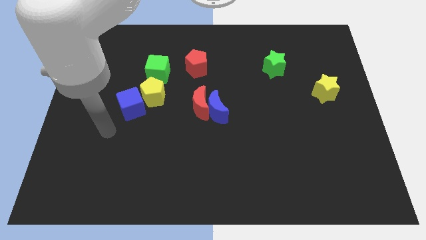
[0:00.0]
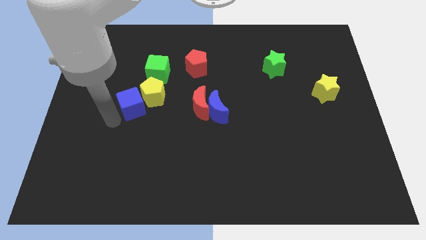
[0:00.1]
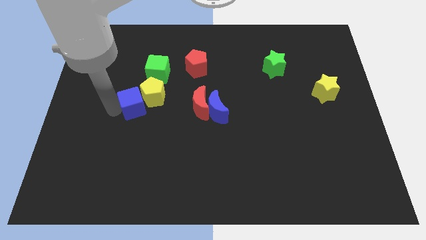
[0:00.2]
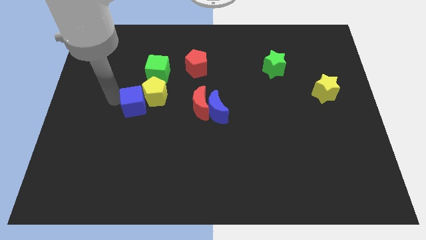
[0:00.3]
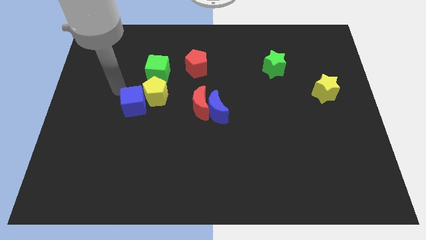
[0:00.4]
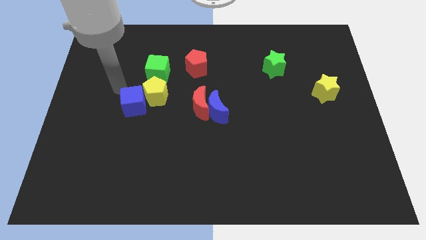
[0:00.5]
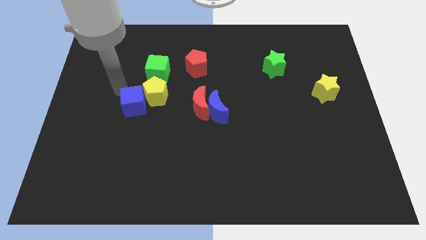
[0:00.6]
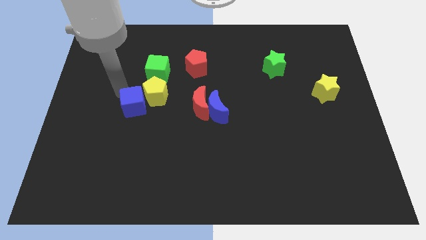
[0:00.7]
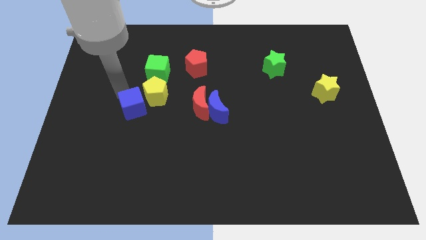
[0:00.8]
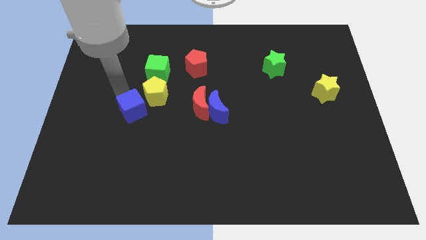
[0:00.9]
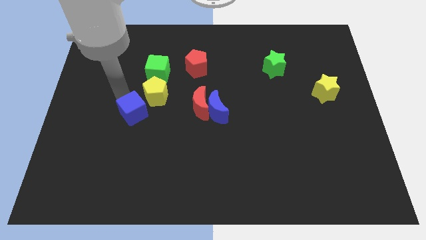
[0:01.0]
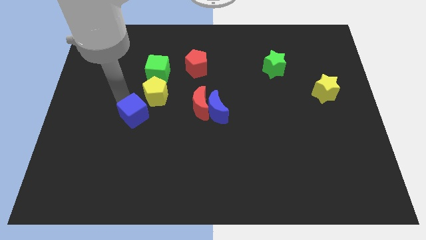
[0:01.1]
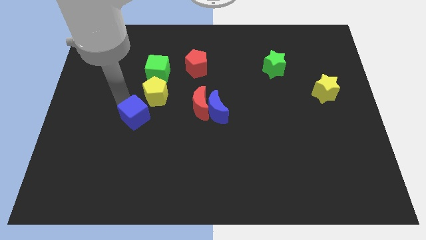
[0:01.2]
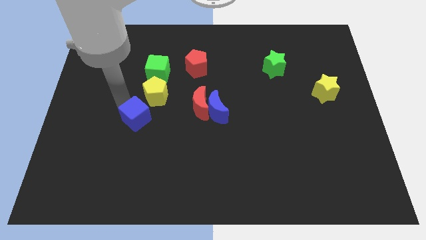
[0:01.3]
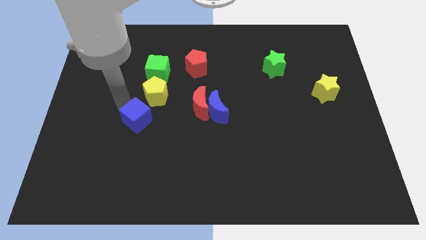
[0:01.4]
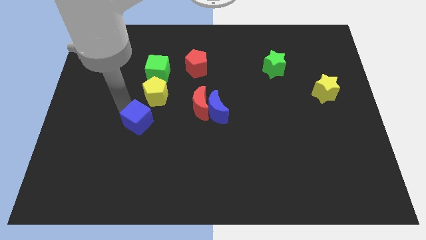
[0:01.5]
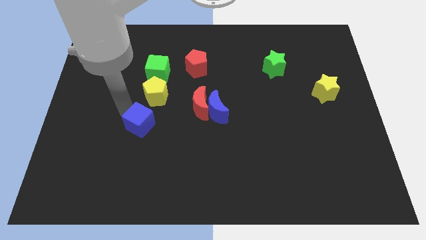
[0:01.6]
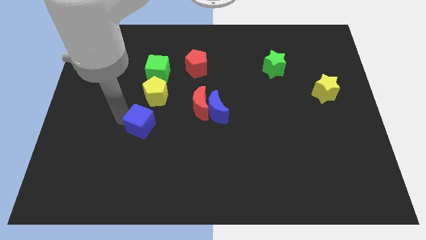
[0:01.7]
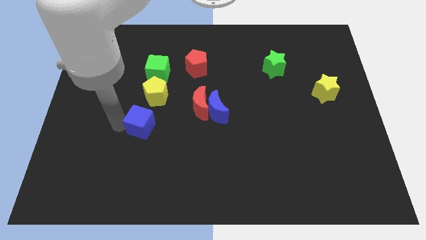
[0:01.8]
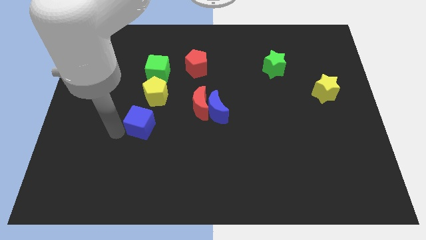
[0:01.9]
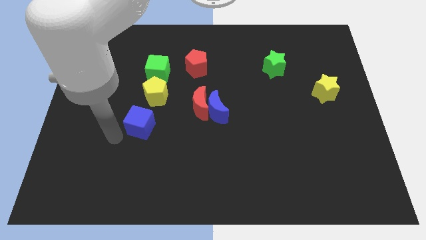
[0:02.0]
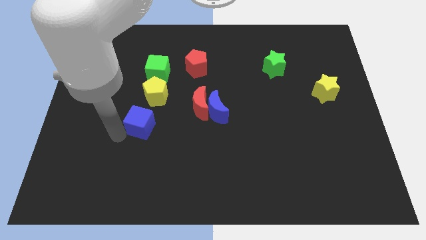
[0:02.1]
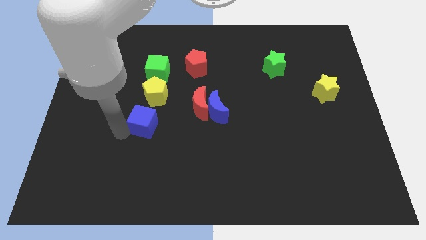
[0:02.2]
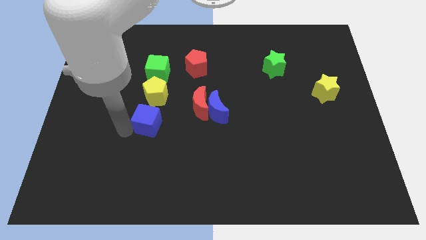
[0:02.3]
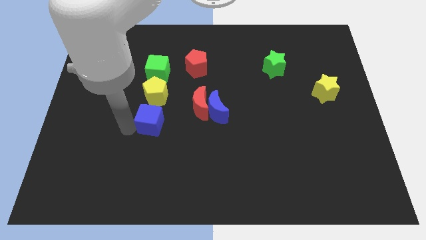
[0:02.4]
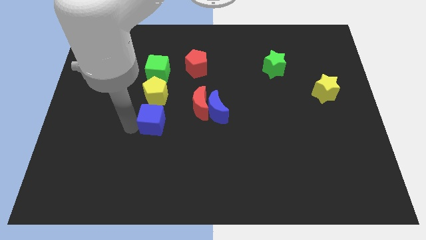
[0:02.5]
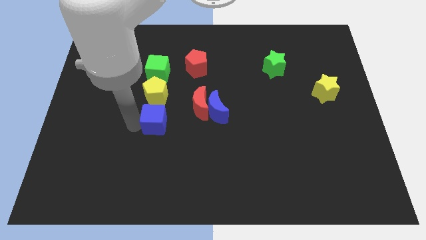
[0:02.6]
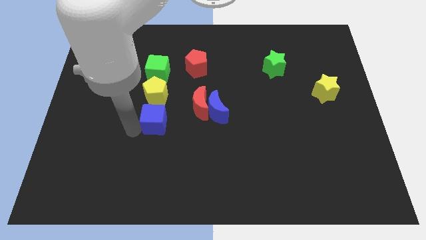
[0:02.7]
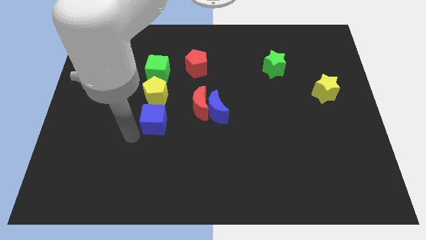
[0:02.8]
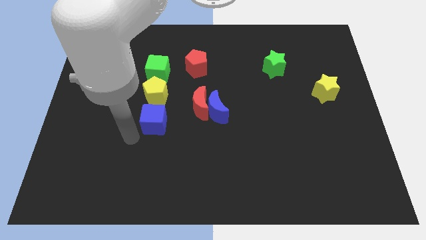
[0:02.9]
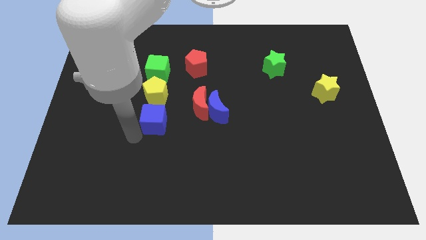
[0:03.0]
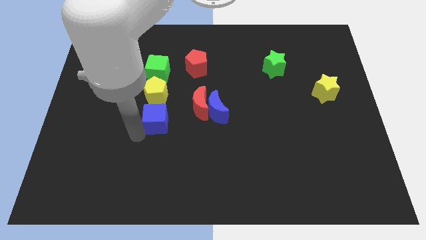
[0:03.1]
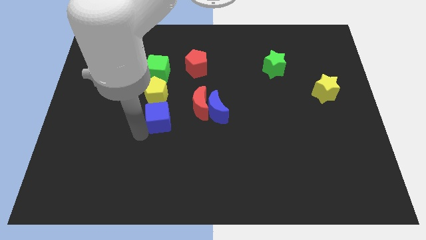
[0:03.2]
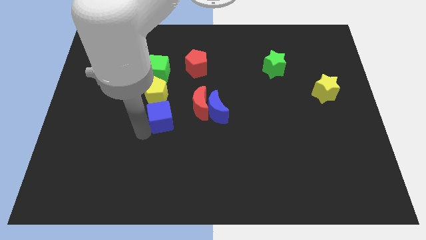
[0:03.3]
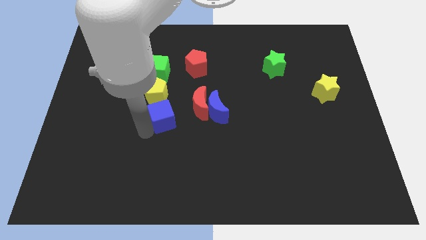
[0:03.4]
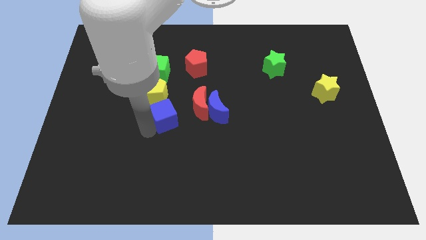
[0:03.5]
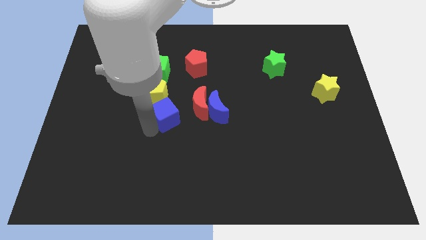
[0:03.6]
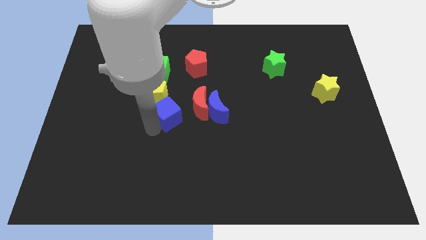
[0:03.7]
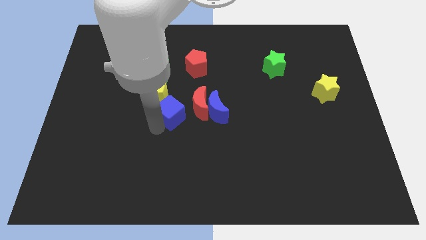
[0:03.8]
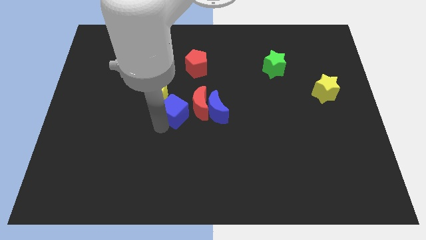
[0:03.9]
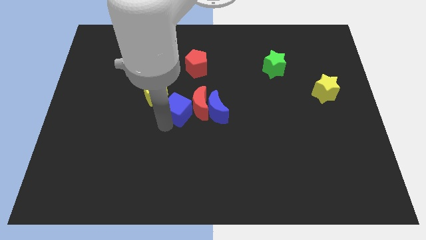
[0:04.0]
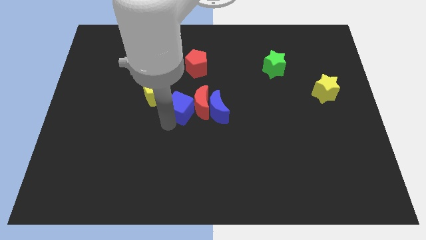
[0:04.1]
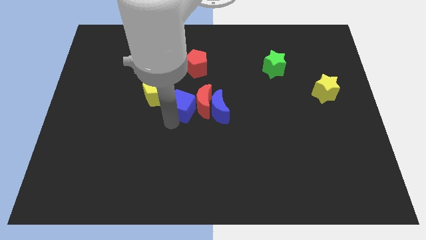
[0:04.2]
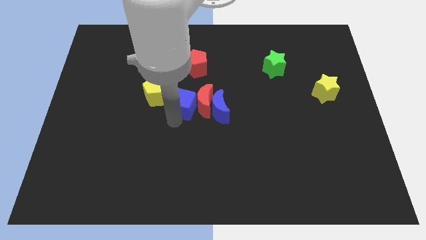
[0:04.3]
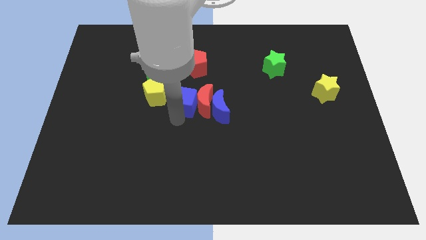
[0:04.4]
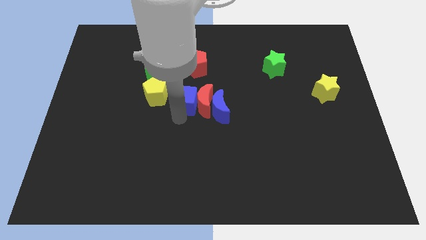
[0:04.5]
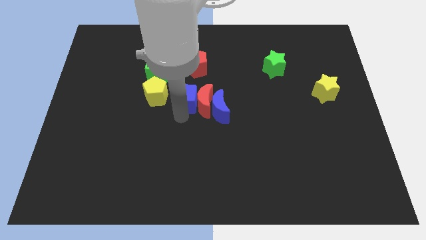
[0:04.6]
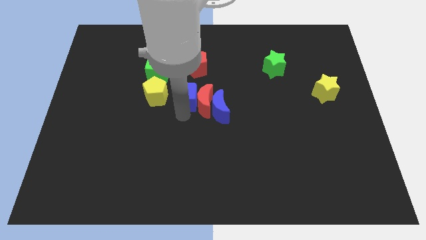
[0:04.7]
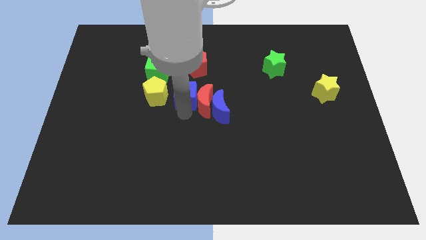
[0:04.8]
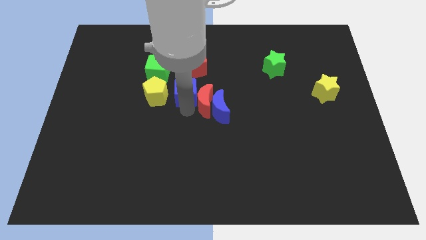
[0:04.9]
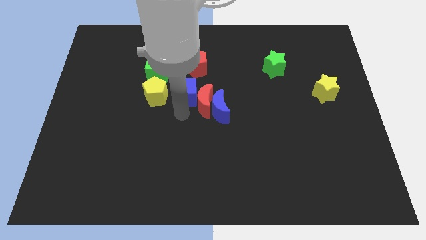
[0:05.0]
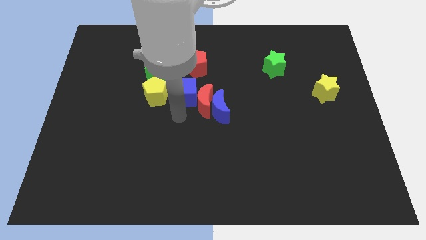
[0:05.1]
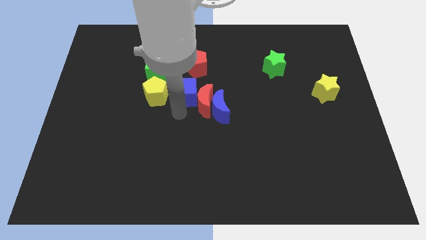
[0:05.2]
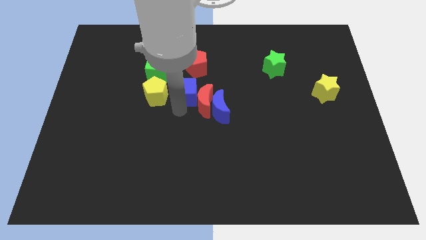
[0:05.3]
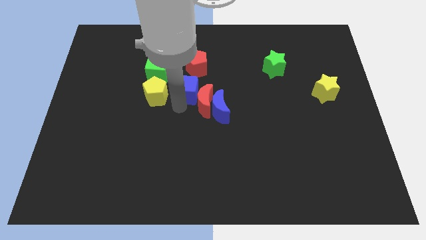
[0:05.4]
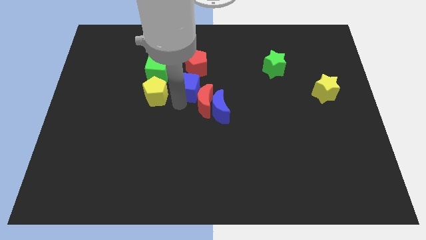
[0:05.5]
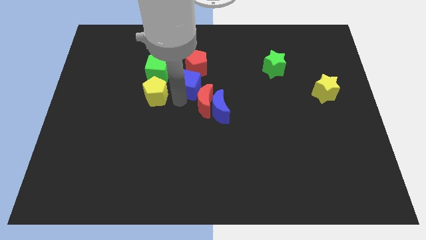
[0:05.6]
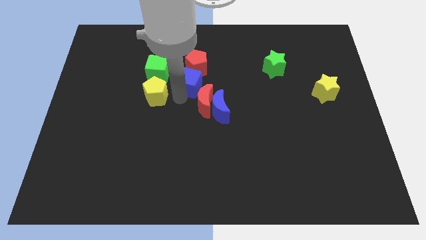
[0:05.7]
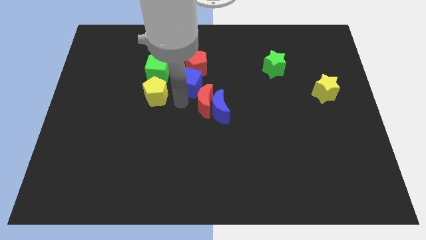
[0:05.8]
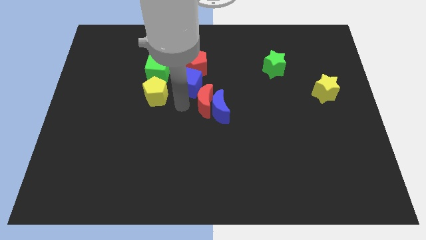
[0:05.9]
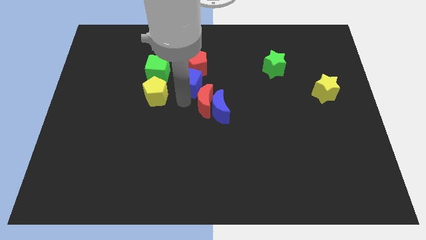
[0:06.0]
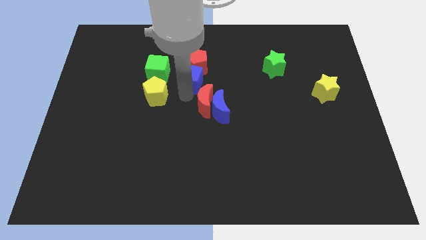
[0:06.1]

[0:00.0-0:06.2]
slide the blue cube to the red pentagon

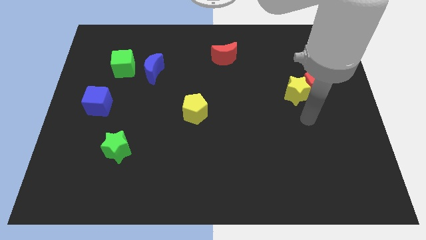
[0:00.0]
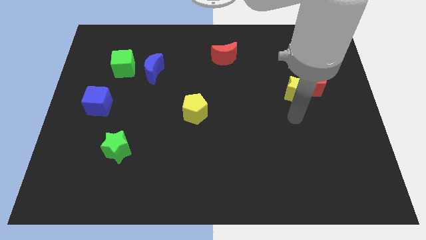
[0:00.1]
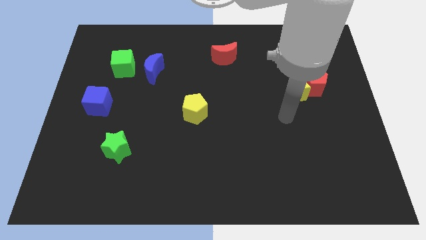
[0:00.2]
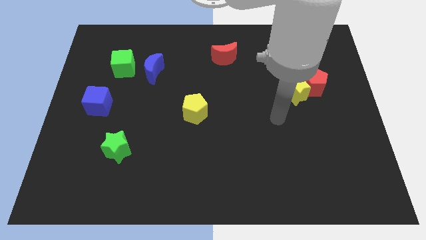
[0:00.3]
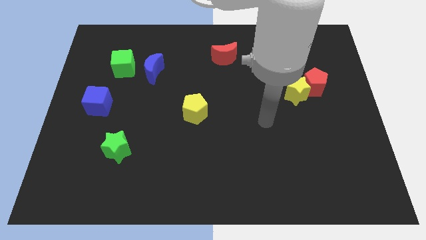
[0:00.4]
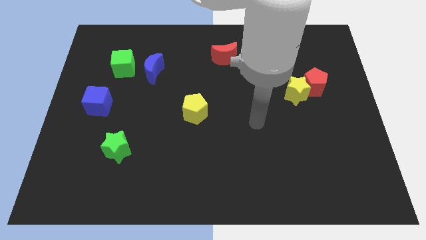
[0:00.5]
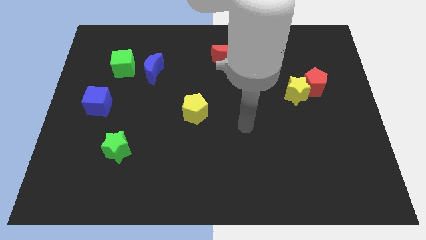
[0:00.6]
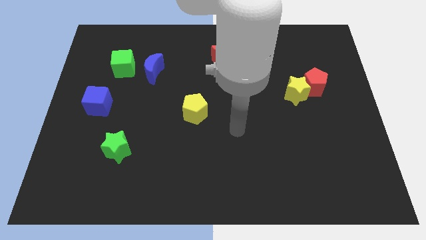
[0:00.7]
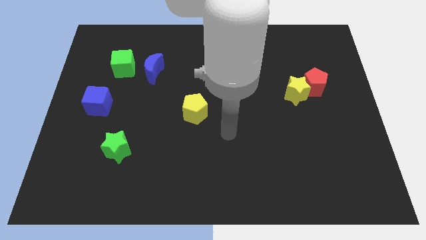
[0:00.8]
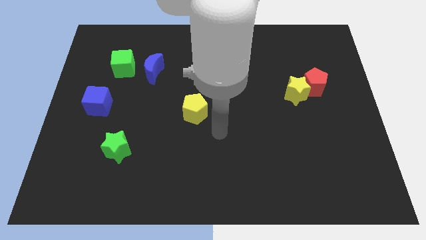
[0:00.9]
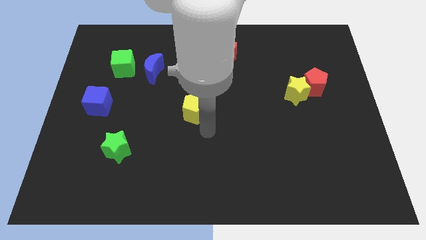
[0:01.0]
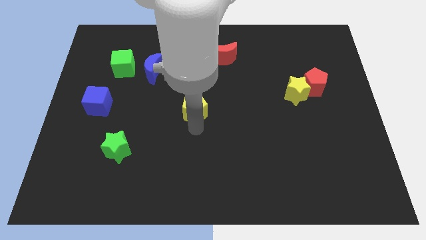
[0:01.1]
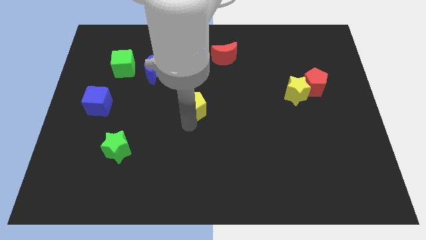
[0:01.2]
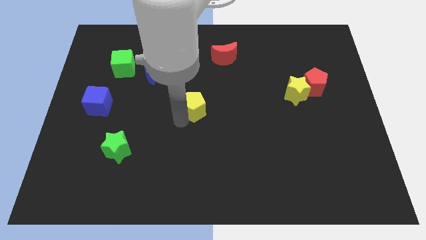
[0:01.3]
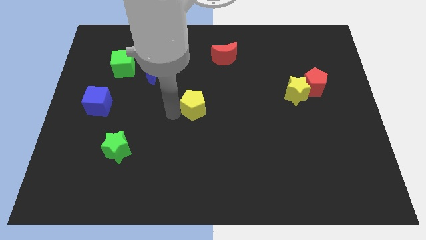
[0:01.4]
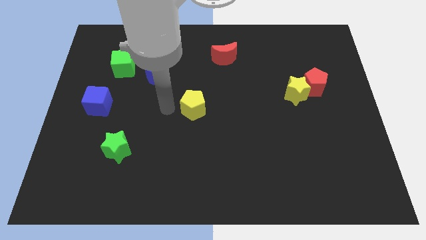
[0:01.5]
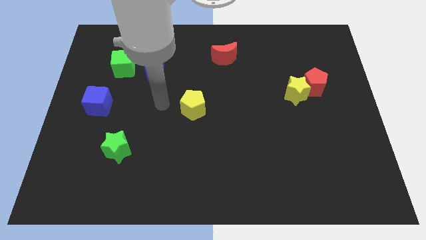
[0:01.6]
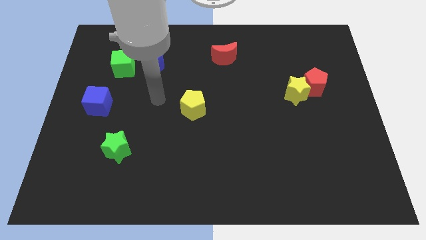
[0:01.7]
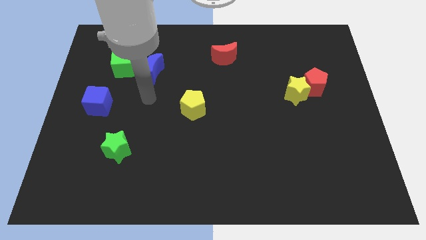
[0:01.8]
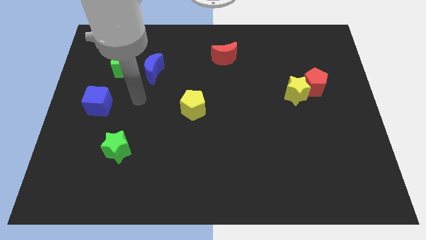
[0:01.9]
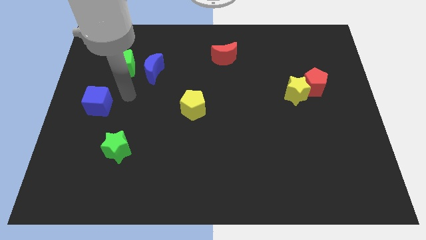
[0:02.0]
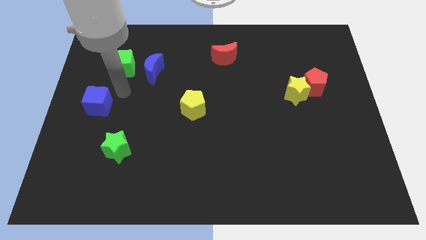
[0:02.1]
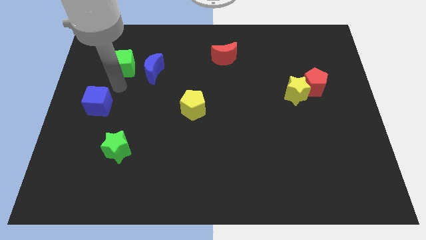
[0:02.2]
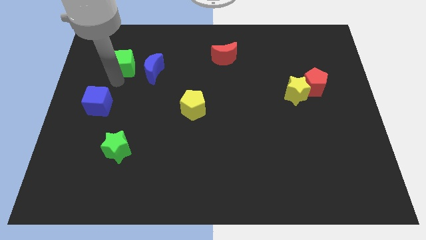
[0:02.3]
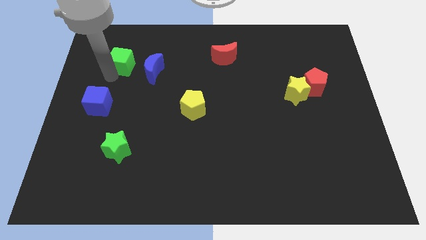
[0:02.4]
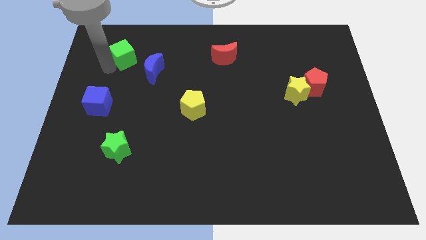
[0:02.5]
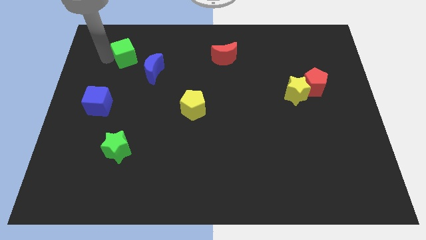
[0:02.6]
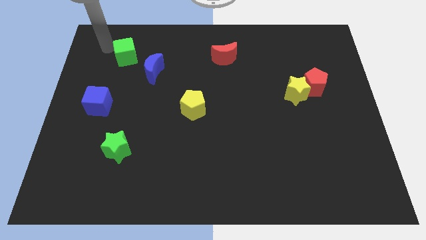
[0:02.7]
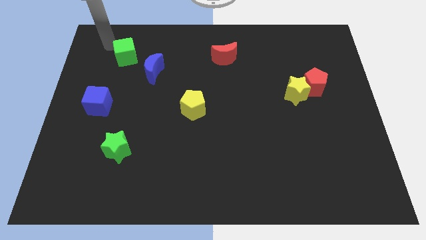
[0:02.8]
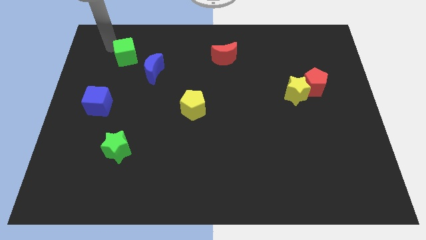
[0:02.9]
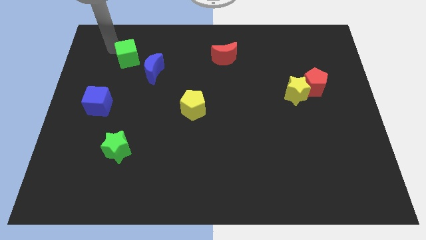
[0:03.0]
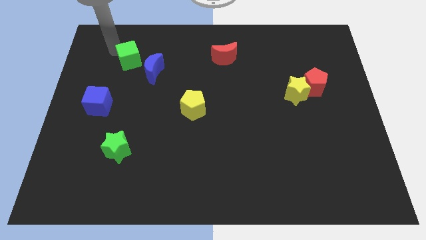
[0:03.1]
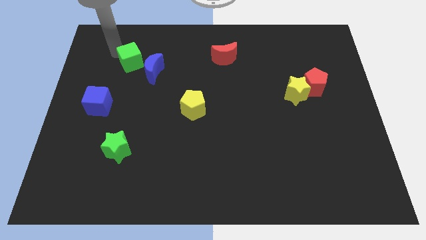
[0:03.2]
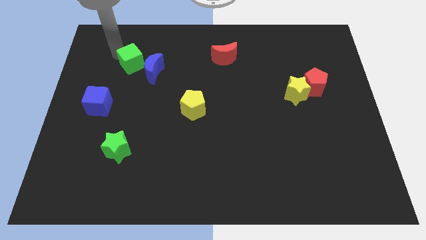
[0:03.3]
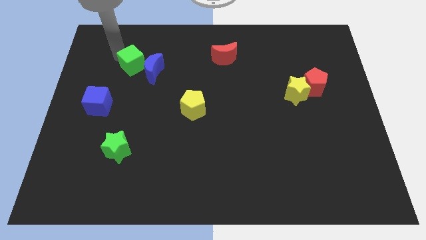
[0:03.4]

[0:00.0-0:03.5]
push the green cube next to the blue moon
